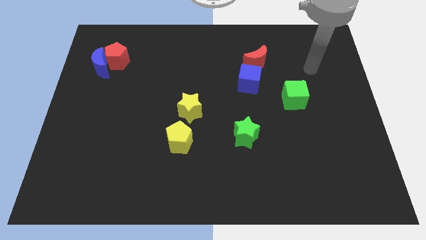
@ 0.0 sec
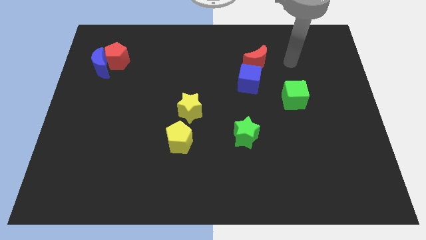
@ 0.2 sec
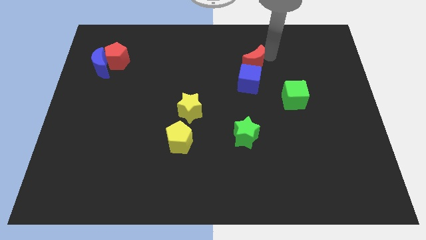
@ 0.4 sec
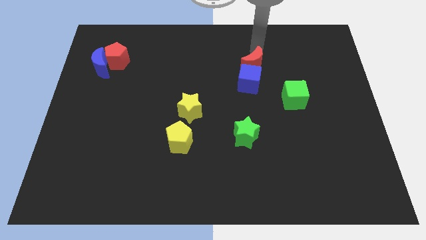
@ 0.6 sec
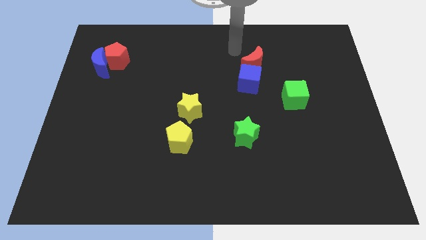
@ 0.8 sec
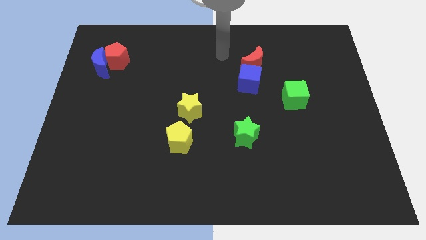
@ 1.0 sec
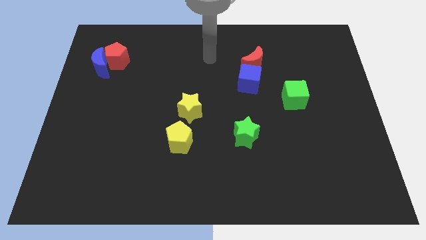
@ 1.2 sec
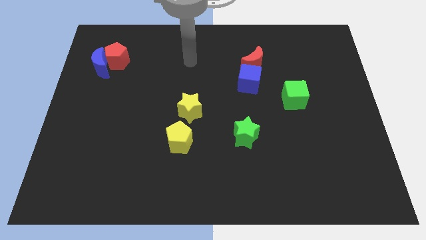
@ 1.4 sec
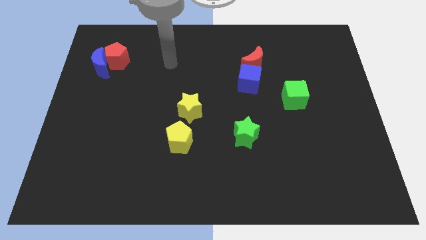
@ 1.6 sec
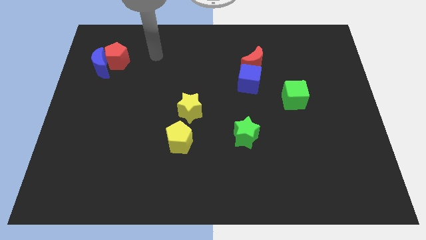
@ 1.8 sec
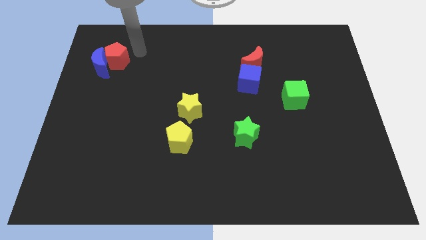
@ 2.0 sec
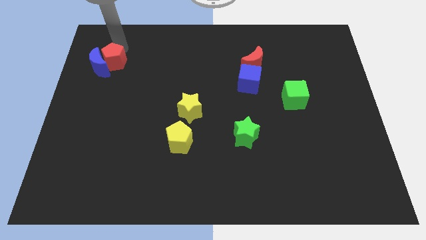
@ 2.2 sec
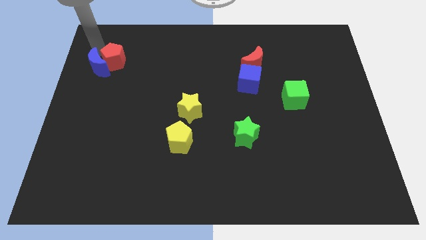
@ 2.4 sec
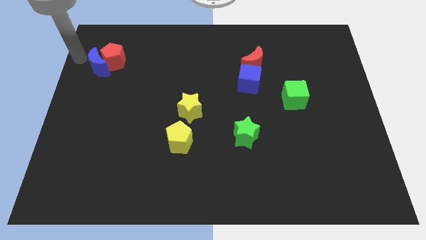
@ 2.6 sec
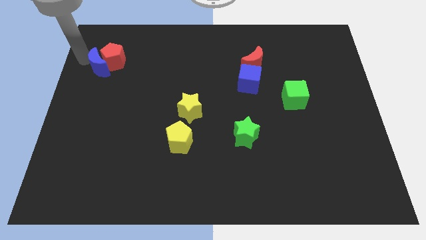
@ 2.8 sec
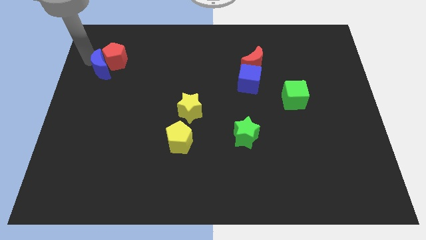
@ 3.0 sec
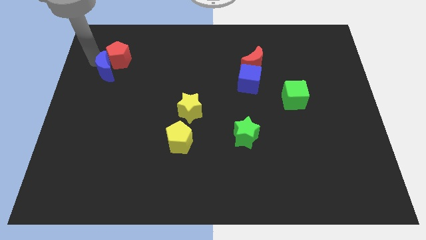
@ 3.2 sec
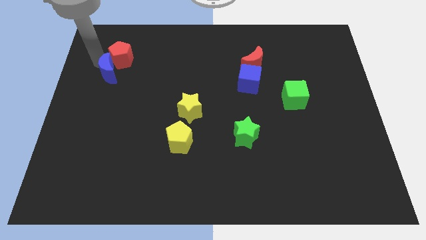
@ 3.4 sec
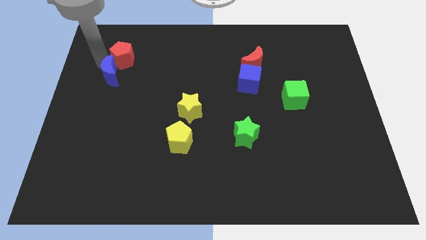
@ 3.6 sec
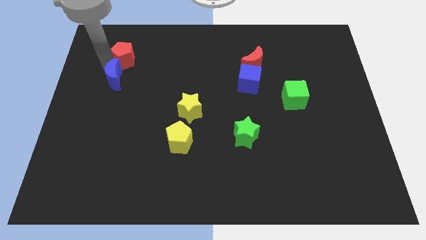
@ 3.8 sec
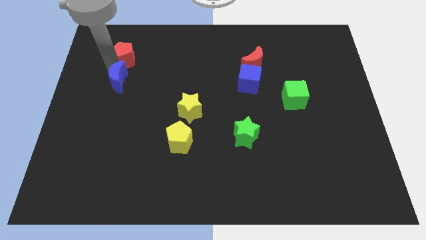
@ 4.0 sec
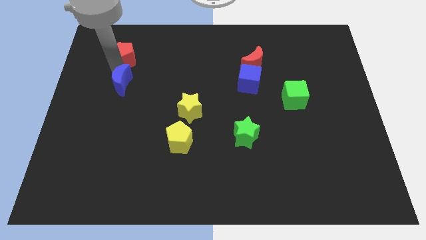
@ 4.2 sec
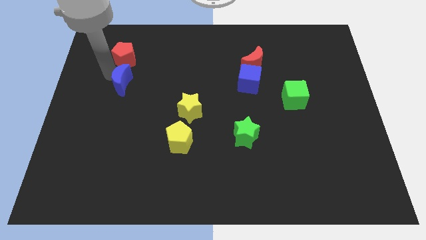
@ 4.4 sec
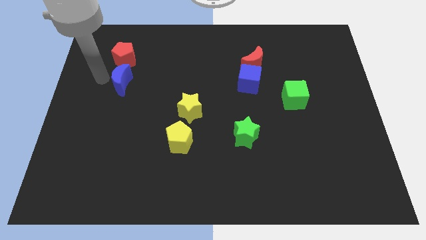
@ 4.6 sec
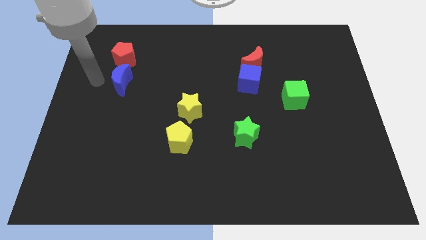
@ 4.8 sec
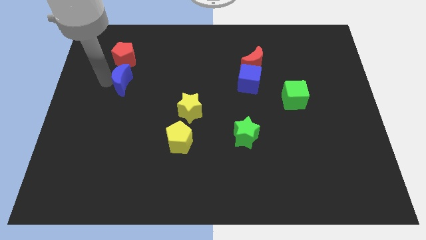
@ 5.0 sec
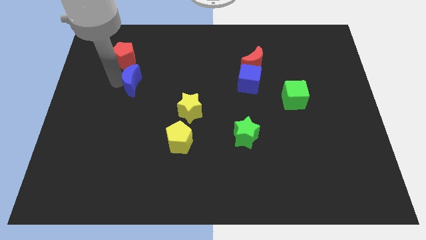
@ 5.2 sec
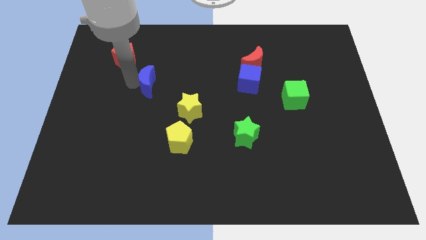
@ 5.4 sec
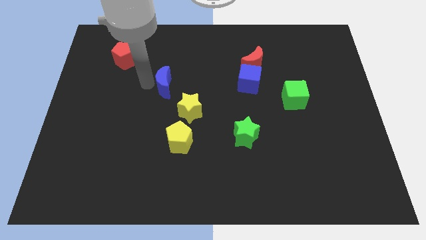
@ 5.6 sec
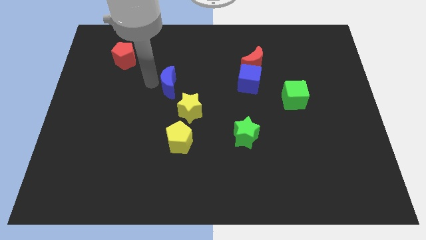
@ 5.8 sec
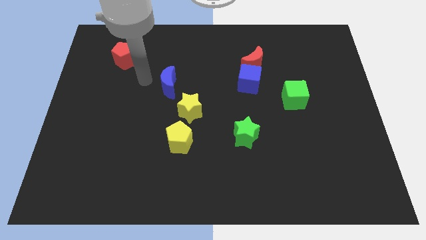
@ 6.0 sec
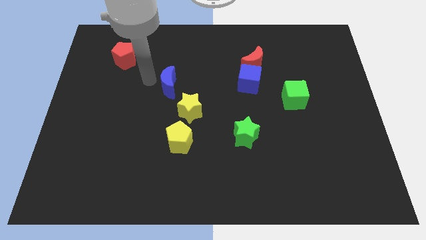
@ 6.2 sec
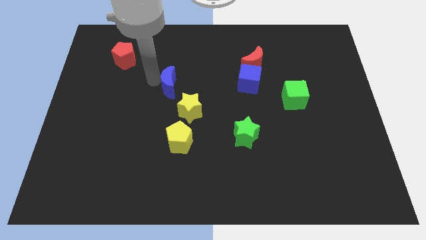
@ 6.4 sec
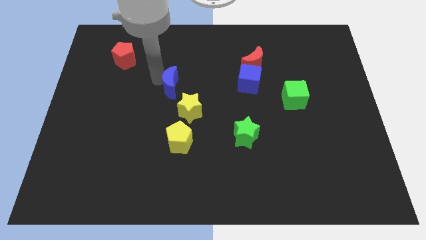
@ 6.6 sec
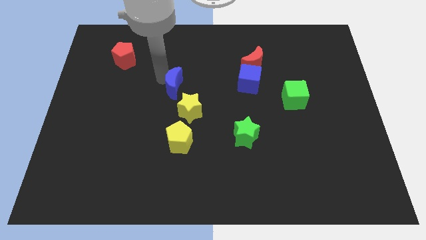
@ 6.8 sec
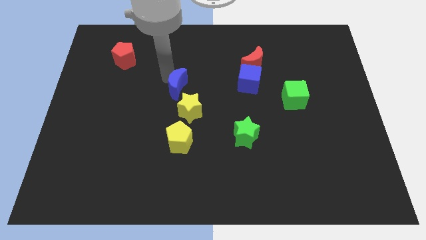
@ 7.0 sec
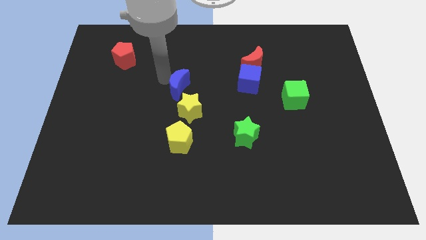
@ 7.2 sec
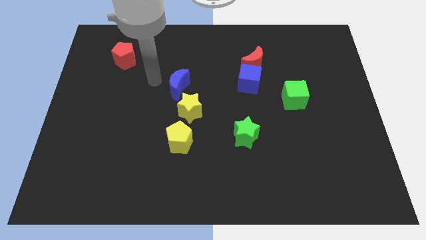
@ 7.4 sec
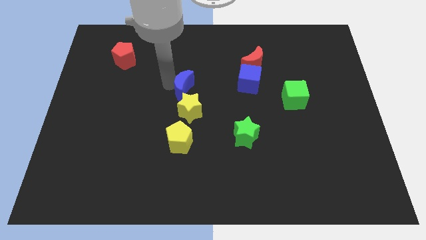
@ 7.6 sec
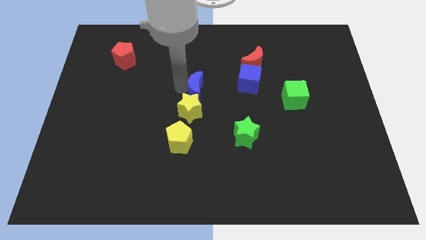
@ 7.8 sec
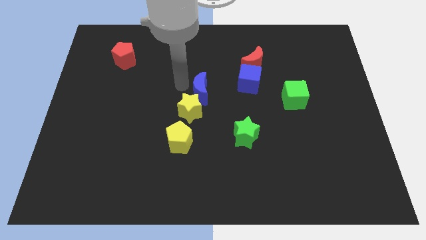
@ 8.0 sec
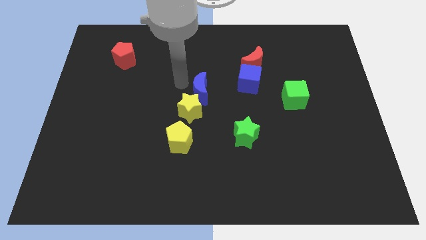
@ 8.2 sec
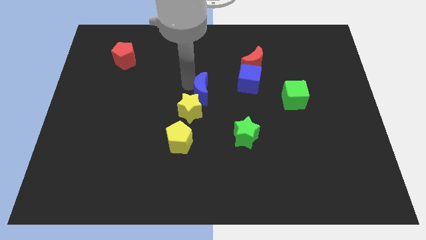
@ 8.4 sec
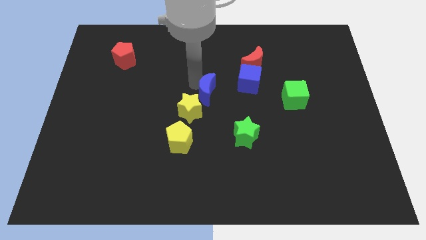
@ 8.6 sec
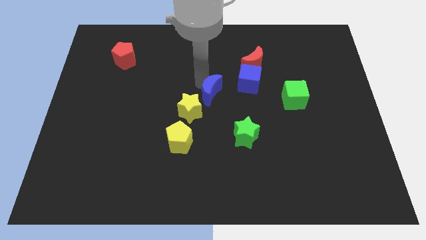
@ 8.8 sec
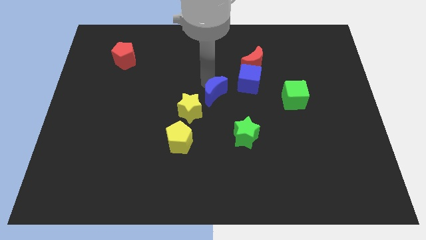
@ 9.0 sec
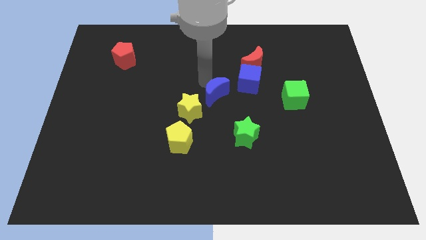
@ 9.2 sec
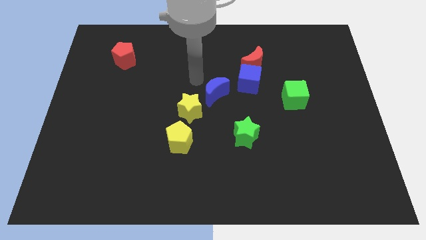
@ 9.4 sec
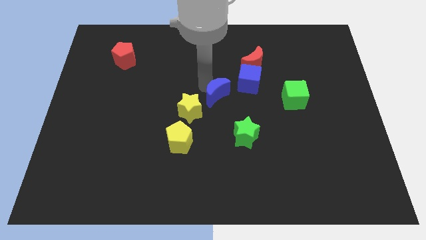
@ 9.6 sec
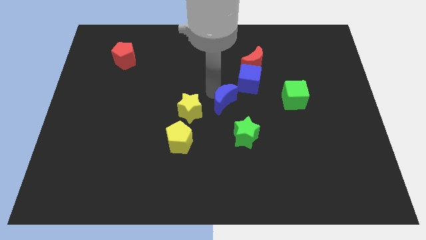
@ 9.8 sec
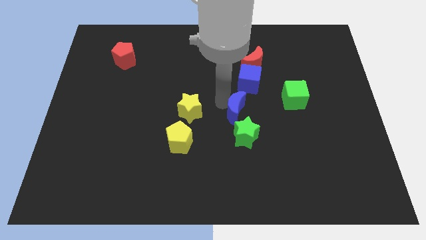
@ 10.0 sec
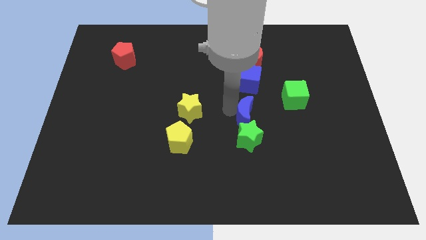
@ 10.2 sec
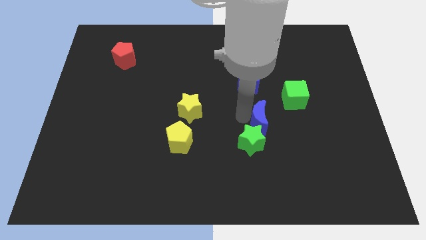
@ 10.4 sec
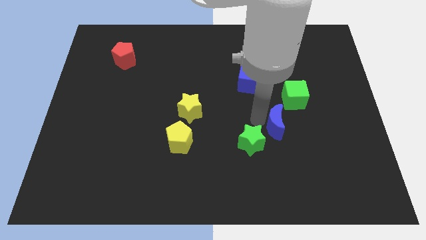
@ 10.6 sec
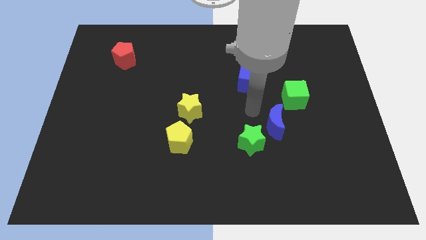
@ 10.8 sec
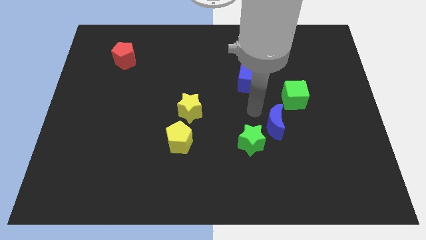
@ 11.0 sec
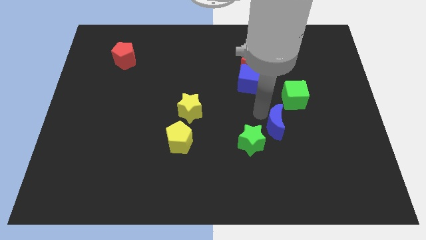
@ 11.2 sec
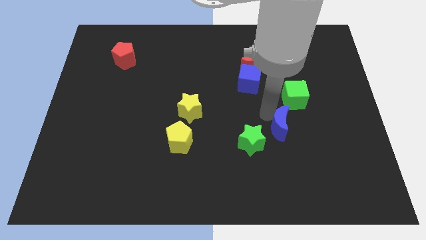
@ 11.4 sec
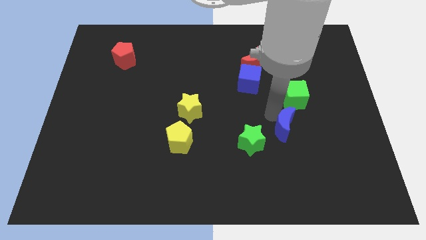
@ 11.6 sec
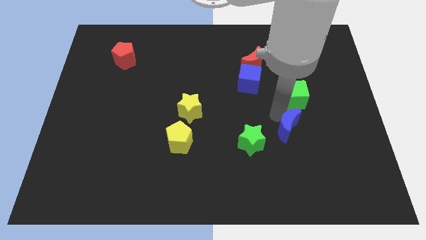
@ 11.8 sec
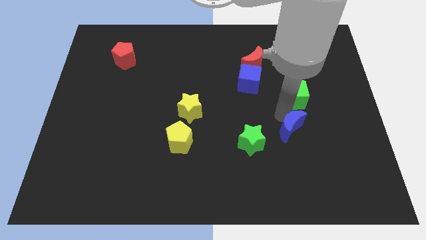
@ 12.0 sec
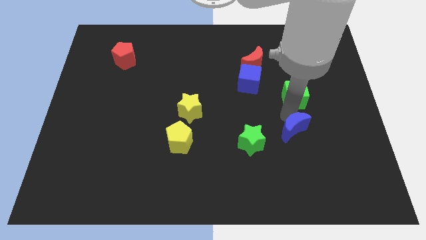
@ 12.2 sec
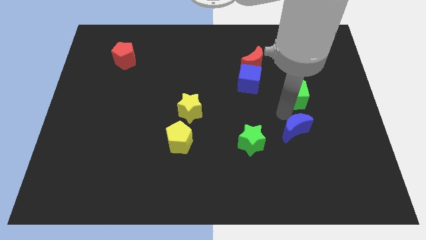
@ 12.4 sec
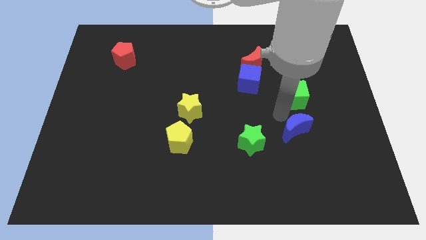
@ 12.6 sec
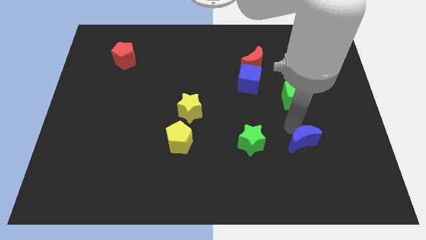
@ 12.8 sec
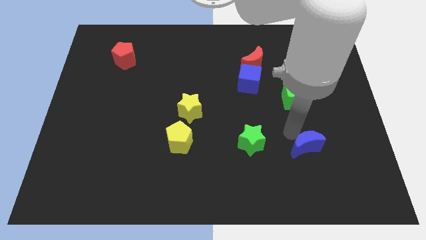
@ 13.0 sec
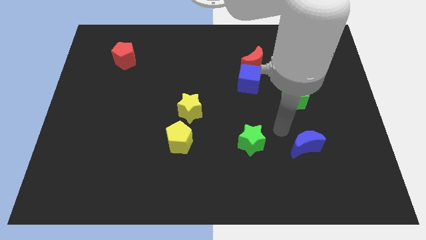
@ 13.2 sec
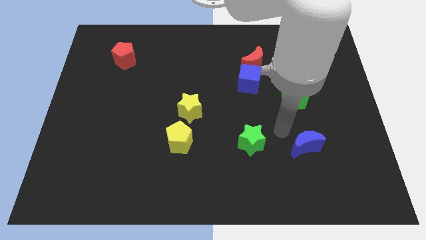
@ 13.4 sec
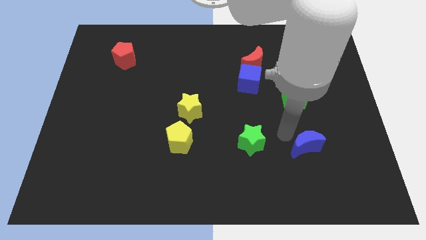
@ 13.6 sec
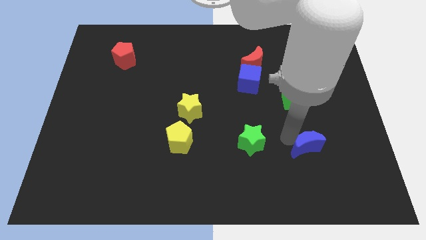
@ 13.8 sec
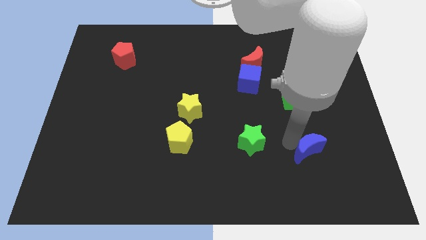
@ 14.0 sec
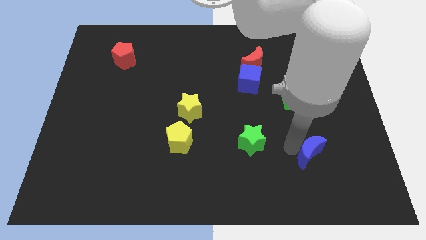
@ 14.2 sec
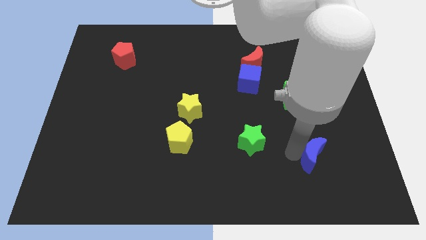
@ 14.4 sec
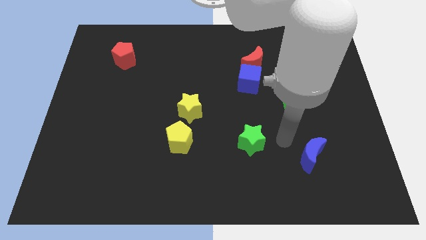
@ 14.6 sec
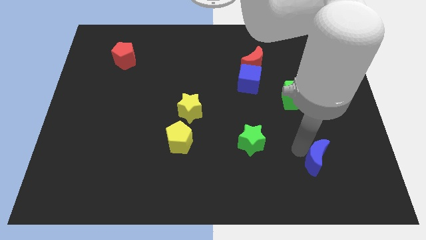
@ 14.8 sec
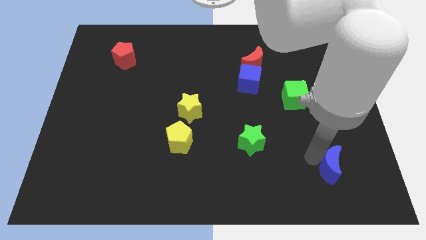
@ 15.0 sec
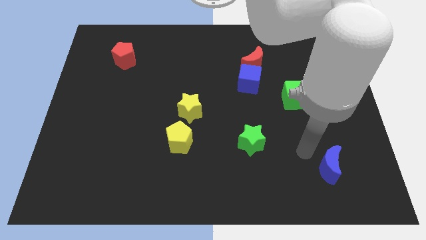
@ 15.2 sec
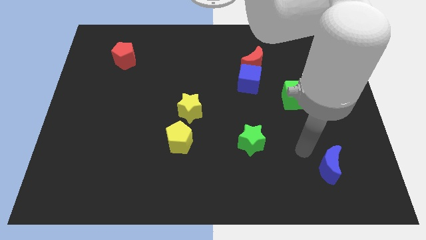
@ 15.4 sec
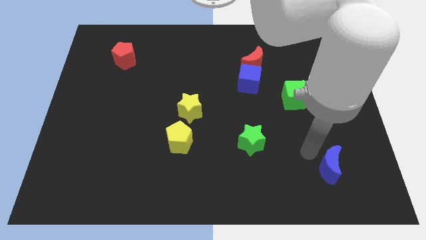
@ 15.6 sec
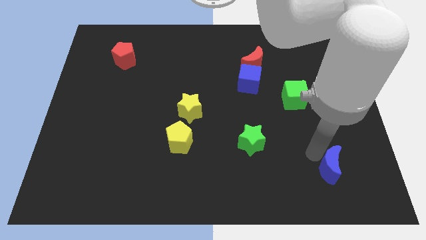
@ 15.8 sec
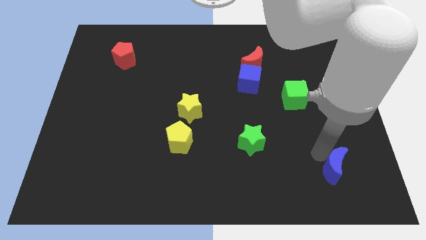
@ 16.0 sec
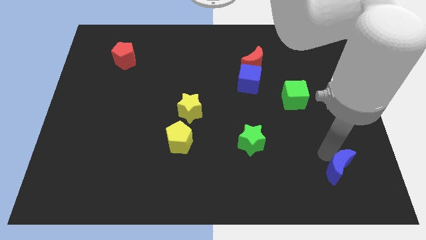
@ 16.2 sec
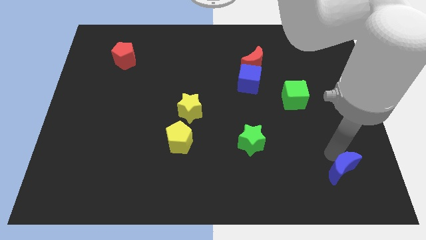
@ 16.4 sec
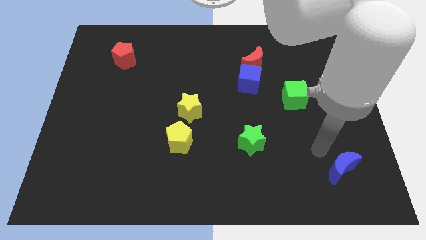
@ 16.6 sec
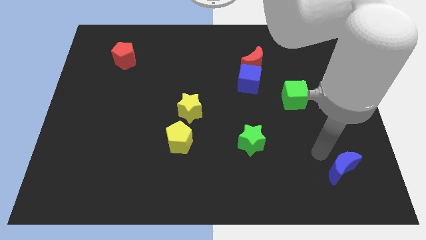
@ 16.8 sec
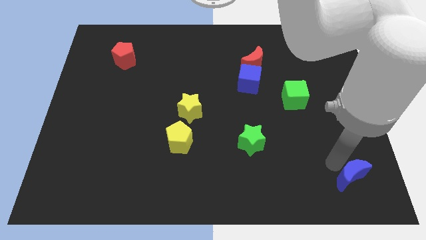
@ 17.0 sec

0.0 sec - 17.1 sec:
move the blue moon to the lower right corner
